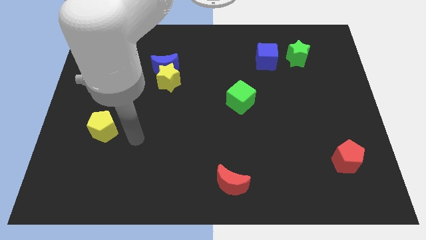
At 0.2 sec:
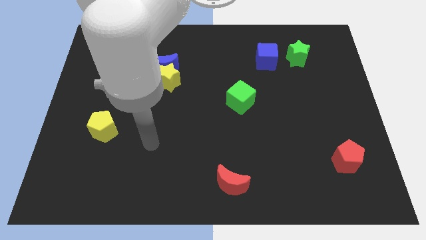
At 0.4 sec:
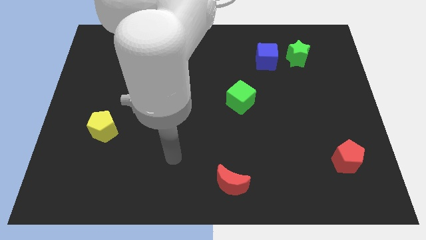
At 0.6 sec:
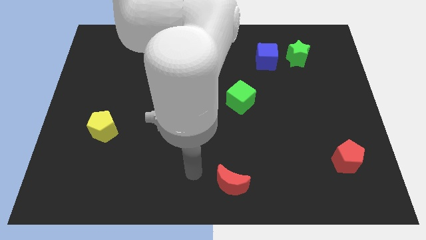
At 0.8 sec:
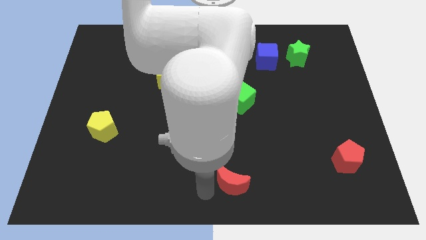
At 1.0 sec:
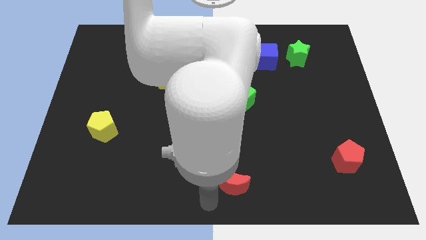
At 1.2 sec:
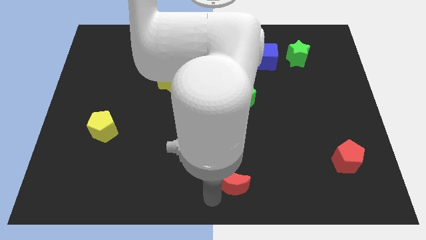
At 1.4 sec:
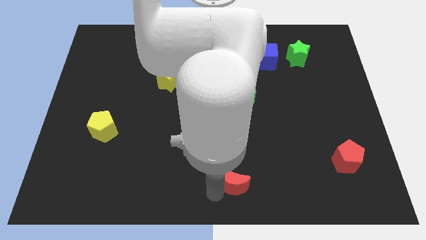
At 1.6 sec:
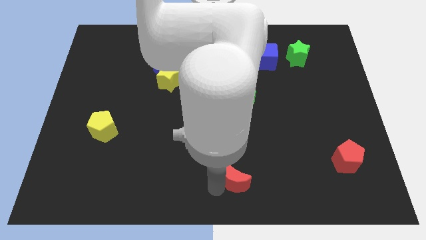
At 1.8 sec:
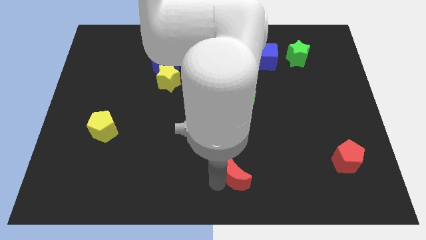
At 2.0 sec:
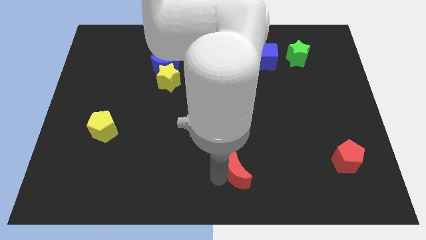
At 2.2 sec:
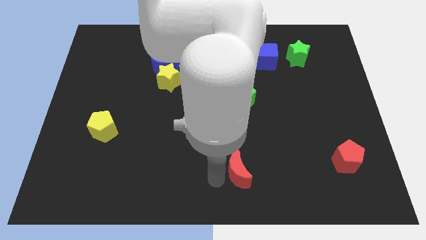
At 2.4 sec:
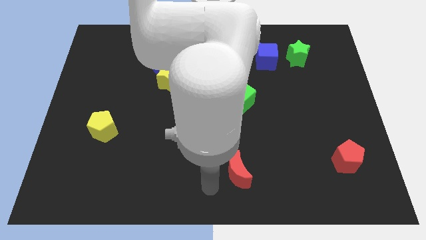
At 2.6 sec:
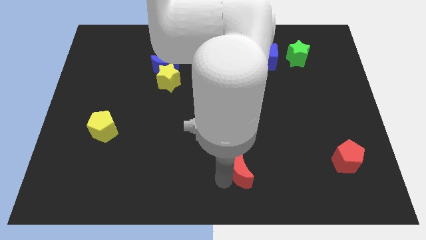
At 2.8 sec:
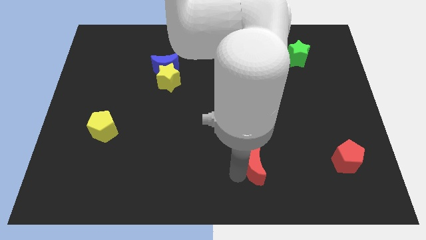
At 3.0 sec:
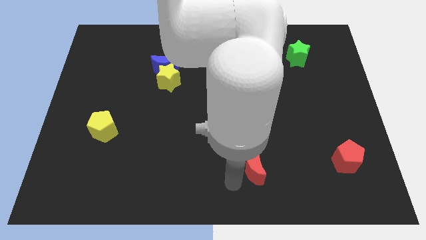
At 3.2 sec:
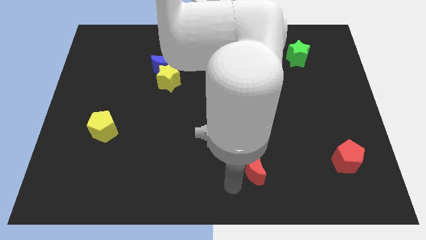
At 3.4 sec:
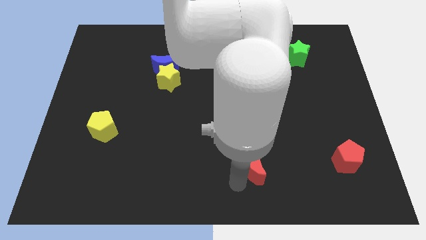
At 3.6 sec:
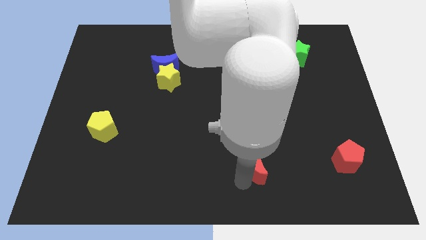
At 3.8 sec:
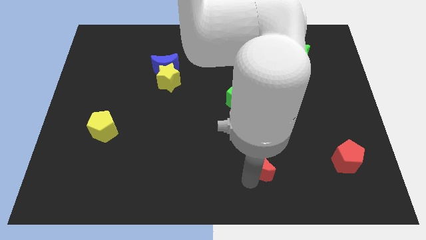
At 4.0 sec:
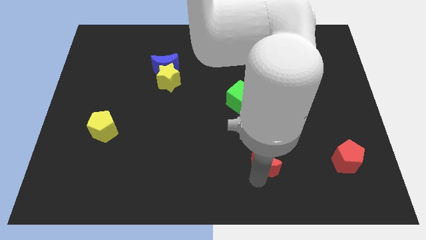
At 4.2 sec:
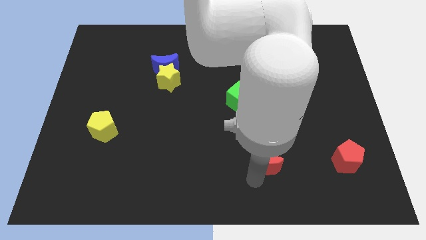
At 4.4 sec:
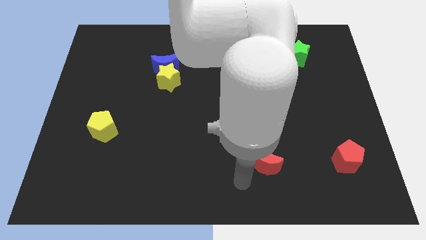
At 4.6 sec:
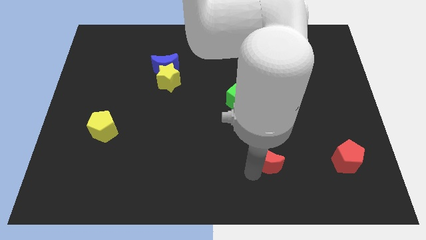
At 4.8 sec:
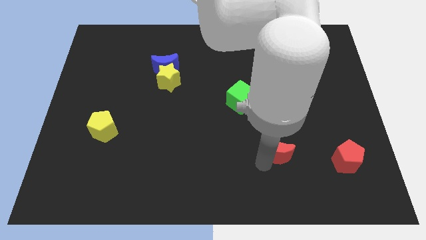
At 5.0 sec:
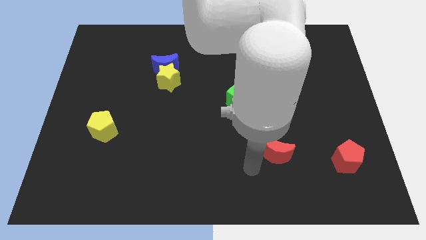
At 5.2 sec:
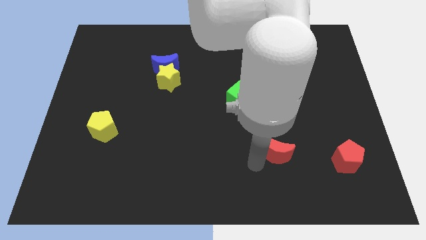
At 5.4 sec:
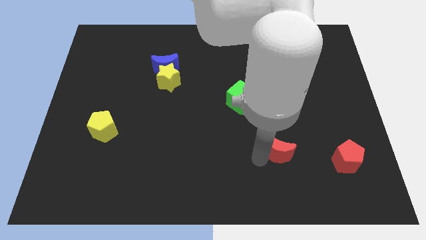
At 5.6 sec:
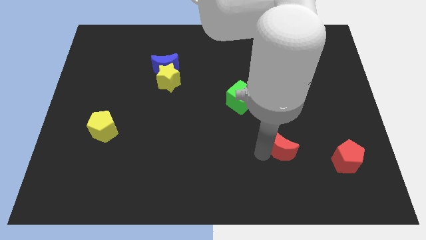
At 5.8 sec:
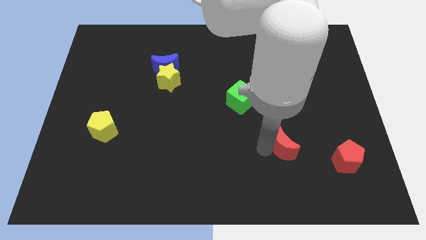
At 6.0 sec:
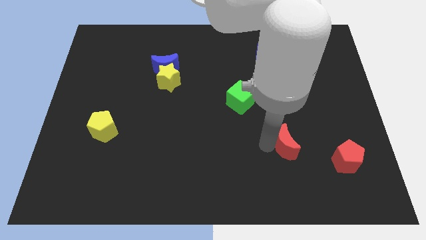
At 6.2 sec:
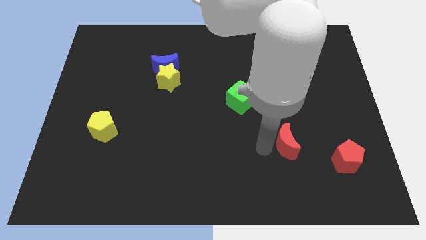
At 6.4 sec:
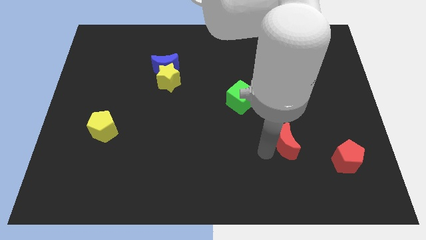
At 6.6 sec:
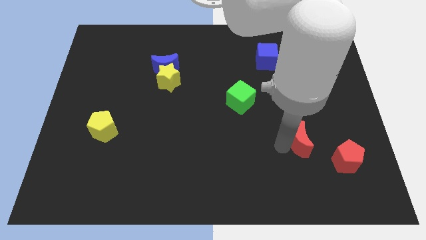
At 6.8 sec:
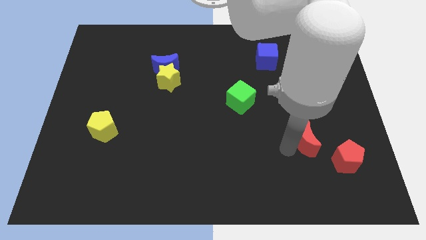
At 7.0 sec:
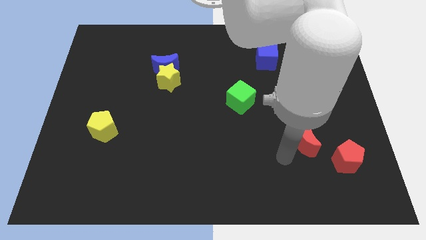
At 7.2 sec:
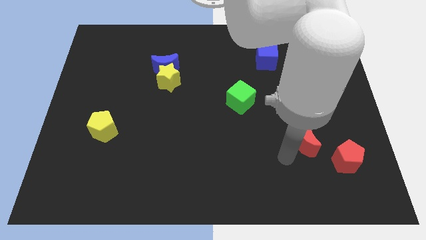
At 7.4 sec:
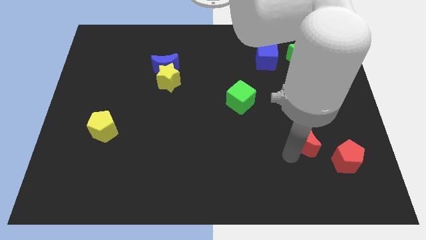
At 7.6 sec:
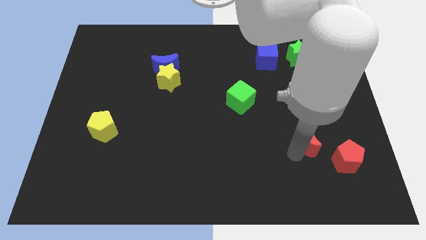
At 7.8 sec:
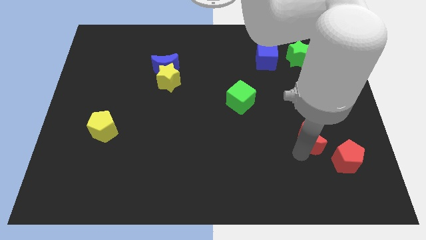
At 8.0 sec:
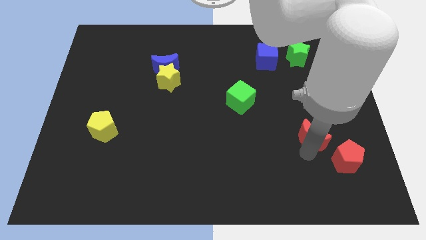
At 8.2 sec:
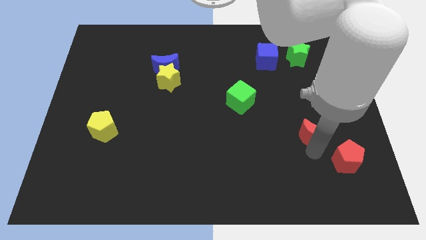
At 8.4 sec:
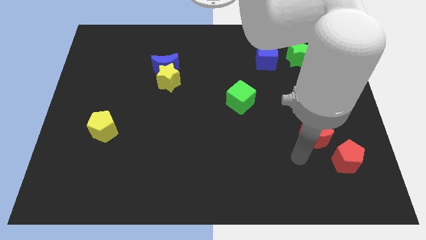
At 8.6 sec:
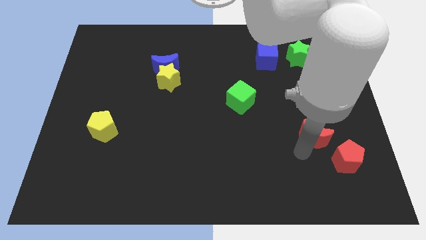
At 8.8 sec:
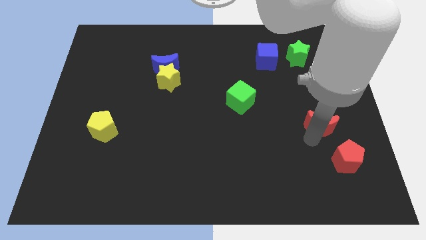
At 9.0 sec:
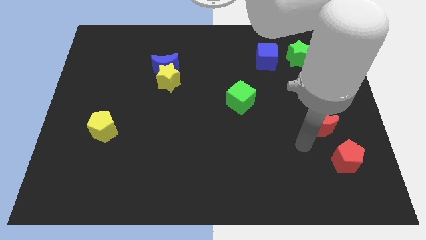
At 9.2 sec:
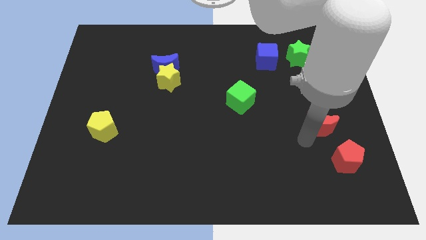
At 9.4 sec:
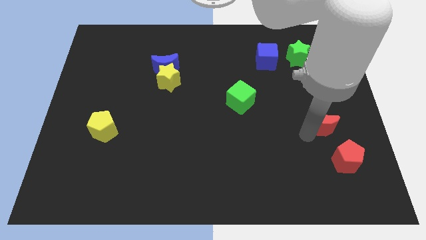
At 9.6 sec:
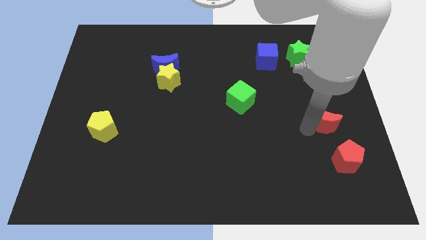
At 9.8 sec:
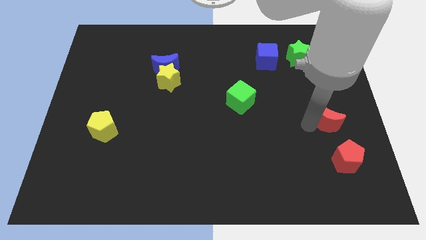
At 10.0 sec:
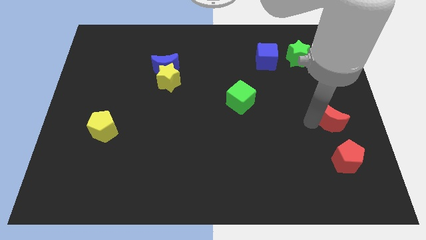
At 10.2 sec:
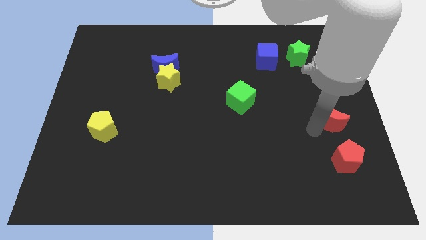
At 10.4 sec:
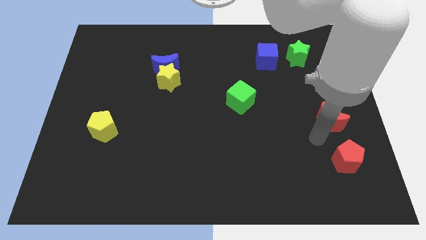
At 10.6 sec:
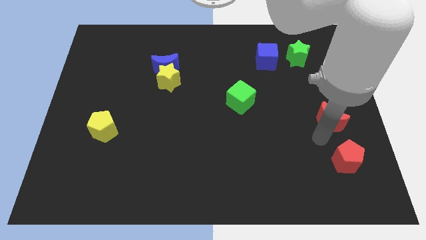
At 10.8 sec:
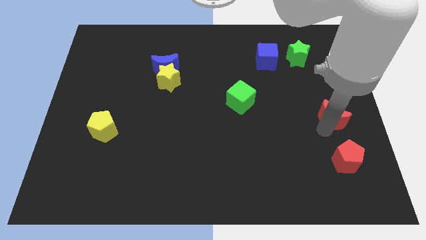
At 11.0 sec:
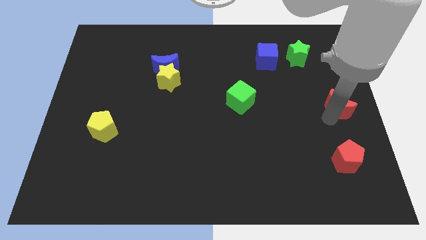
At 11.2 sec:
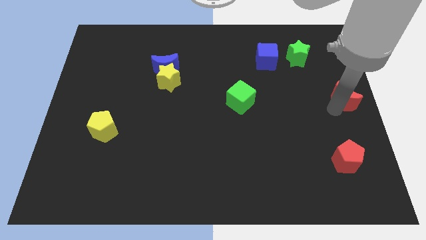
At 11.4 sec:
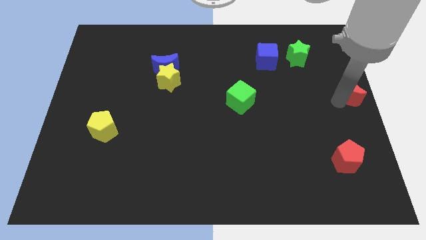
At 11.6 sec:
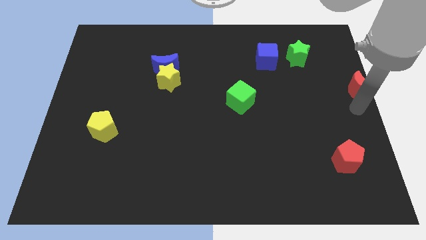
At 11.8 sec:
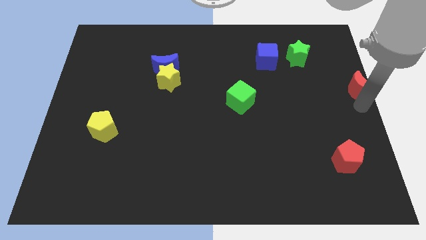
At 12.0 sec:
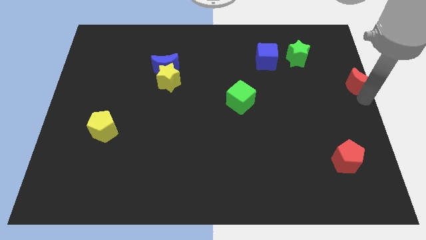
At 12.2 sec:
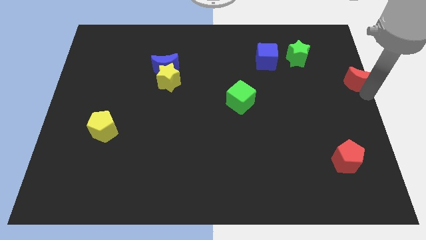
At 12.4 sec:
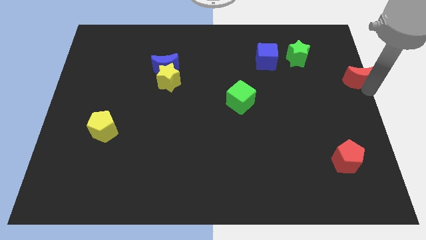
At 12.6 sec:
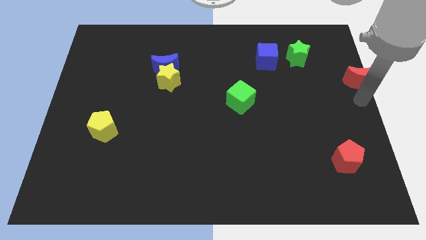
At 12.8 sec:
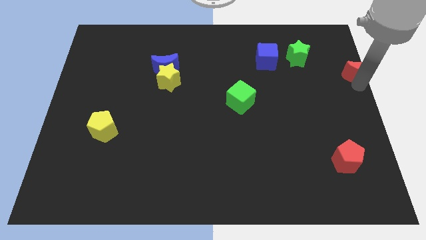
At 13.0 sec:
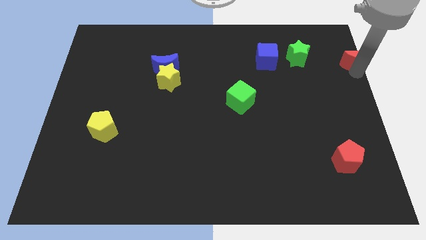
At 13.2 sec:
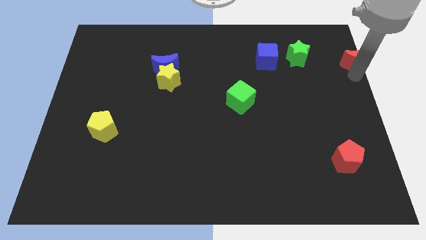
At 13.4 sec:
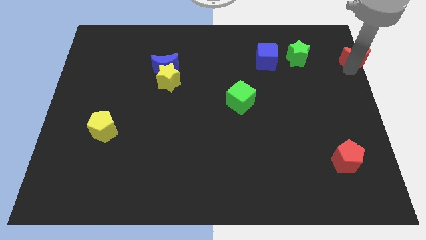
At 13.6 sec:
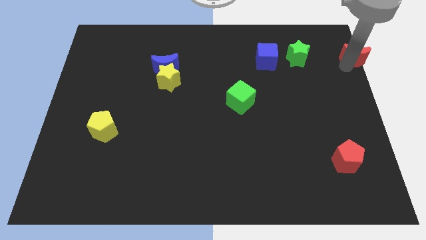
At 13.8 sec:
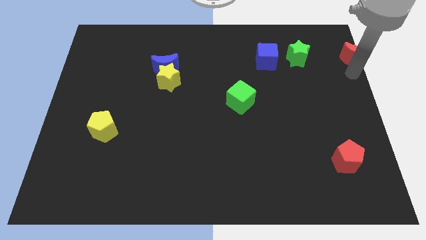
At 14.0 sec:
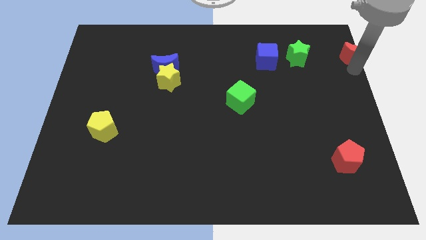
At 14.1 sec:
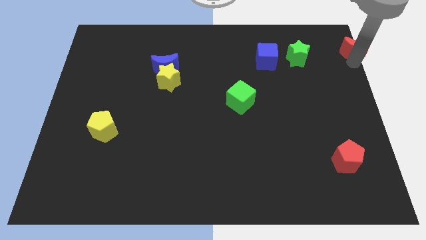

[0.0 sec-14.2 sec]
put the red moon to the top right of the board
